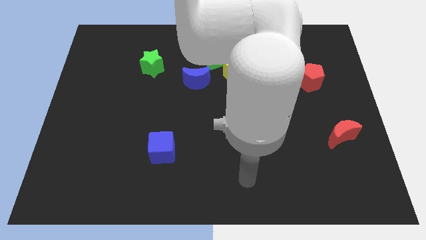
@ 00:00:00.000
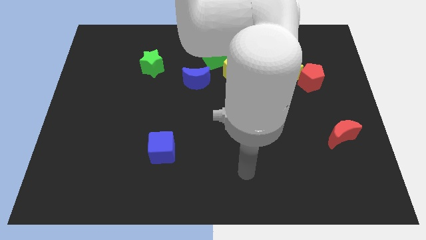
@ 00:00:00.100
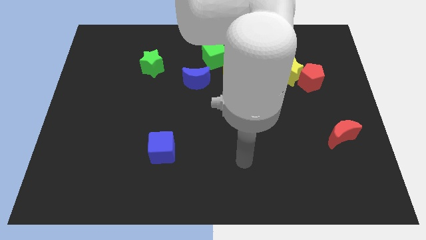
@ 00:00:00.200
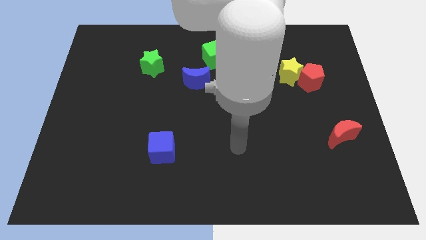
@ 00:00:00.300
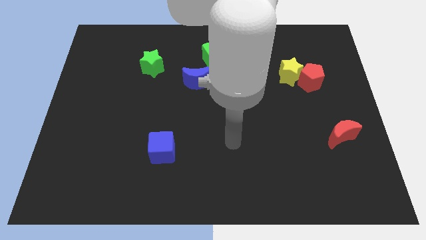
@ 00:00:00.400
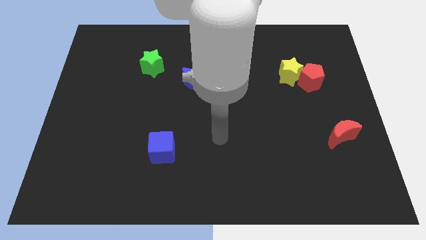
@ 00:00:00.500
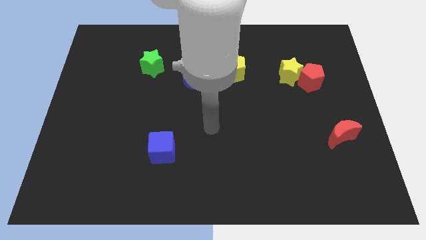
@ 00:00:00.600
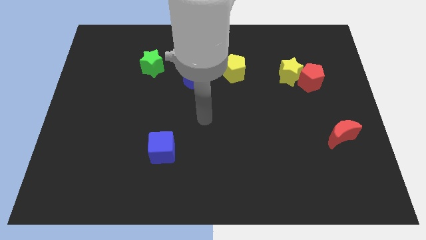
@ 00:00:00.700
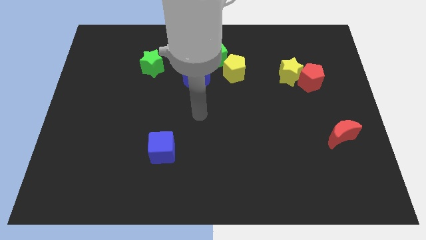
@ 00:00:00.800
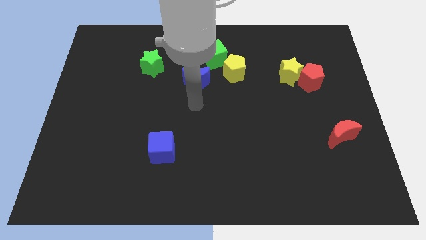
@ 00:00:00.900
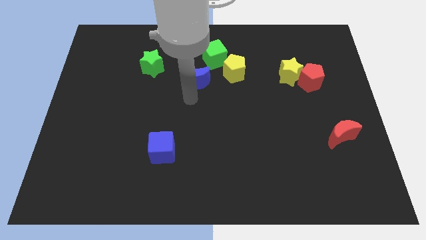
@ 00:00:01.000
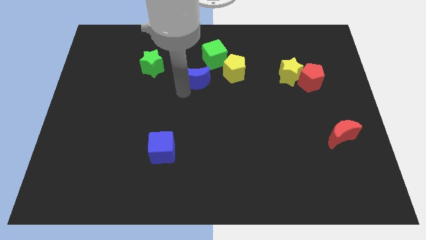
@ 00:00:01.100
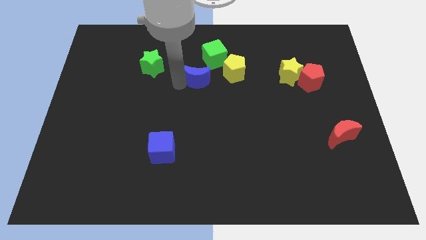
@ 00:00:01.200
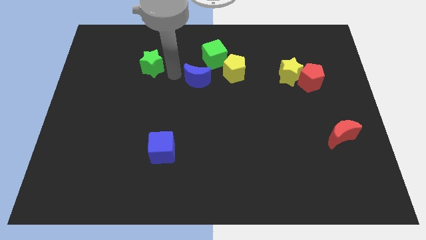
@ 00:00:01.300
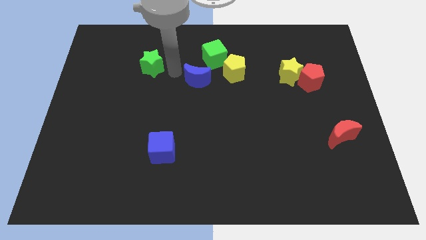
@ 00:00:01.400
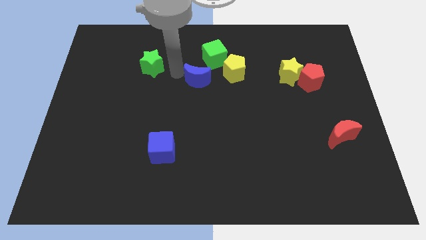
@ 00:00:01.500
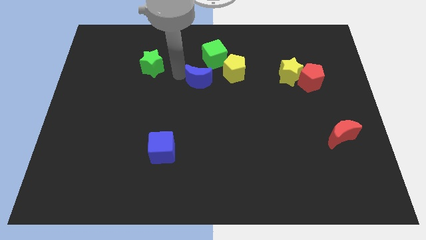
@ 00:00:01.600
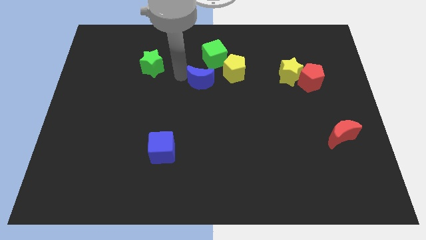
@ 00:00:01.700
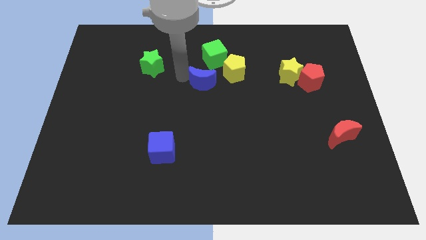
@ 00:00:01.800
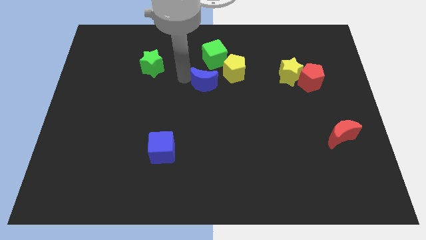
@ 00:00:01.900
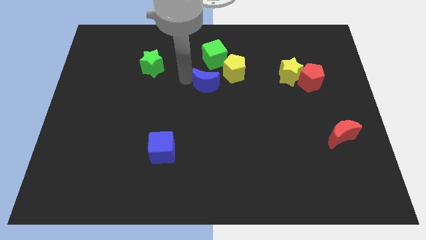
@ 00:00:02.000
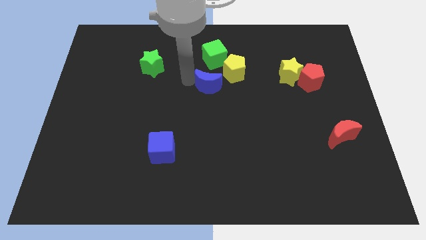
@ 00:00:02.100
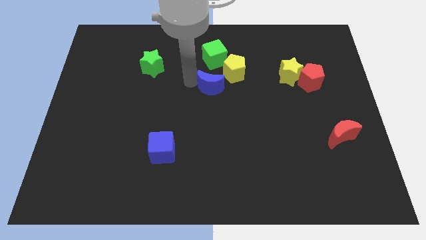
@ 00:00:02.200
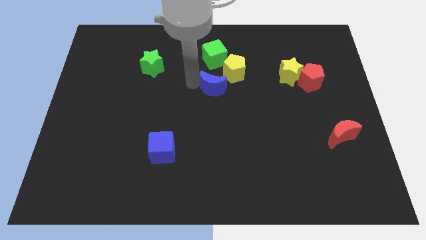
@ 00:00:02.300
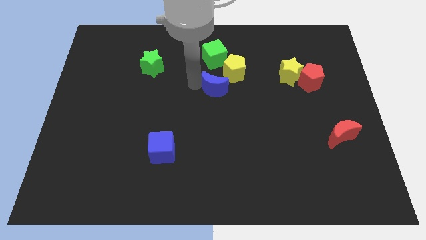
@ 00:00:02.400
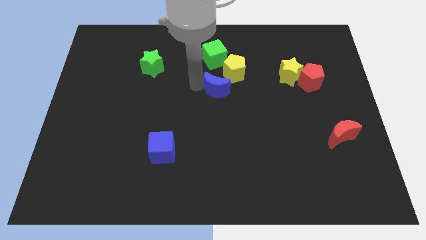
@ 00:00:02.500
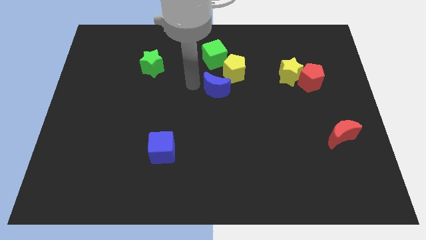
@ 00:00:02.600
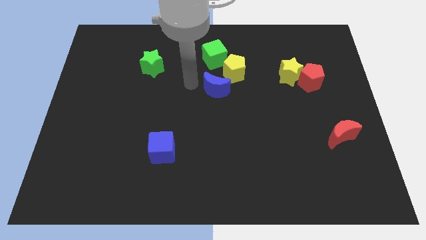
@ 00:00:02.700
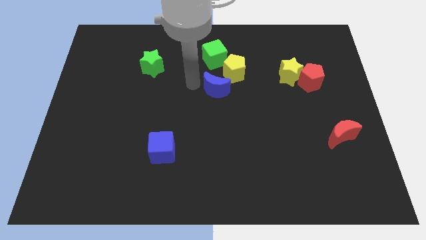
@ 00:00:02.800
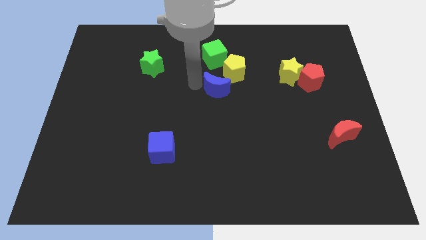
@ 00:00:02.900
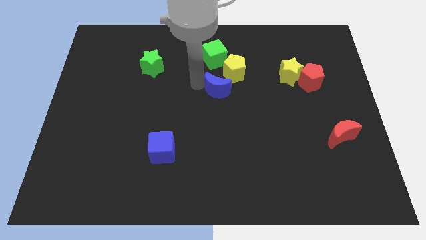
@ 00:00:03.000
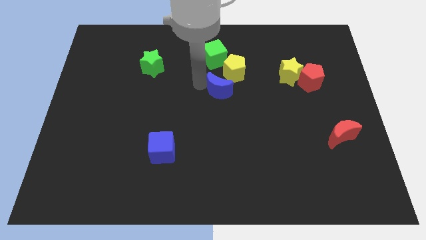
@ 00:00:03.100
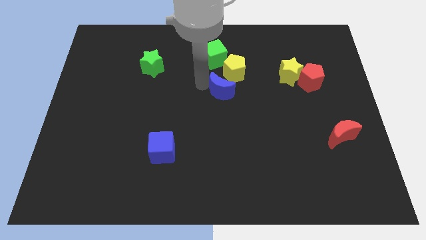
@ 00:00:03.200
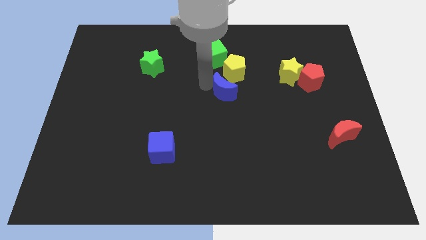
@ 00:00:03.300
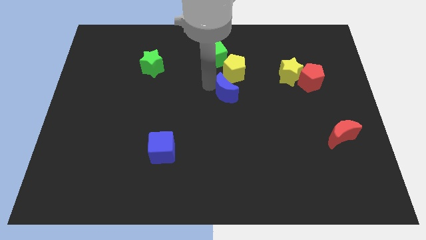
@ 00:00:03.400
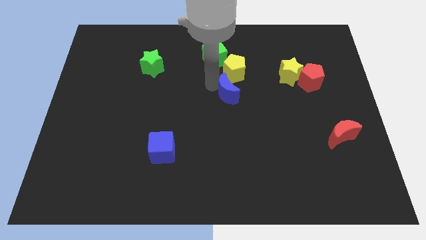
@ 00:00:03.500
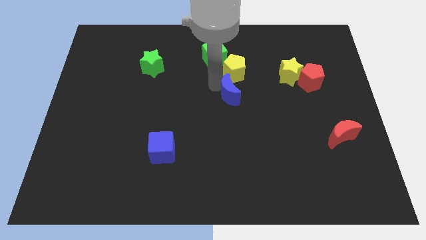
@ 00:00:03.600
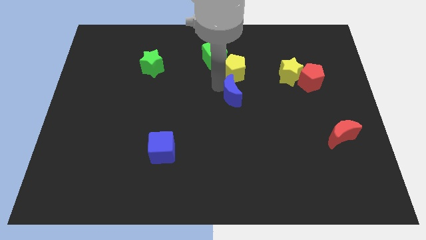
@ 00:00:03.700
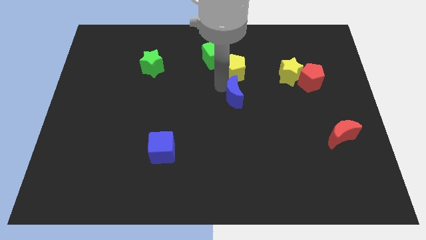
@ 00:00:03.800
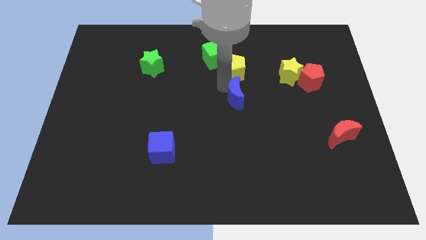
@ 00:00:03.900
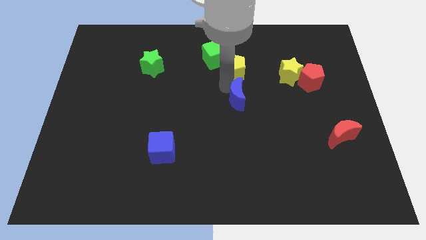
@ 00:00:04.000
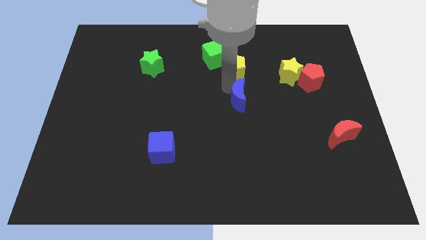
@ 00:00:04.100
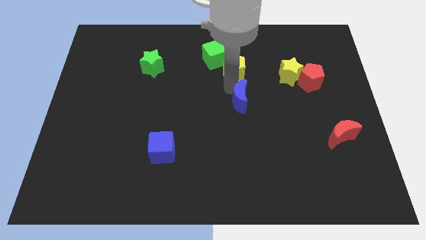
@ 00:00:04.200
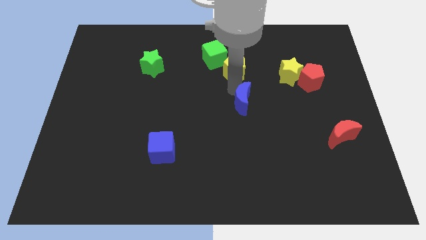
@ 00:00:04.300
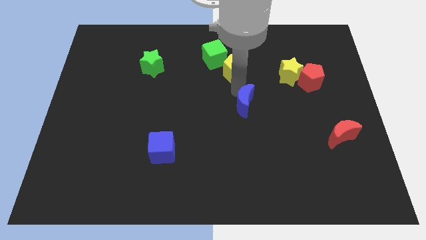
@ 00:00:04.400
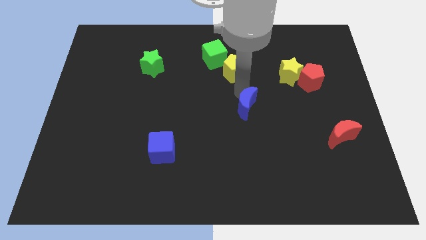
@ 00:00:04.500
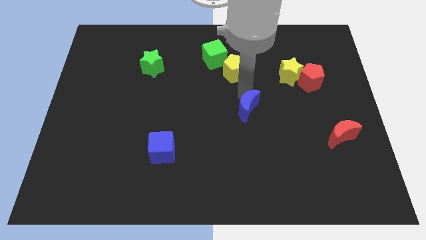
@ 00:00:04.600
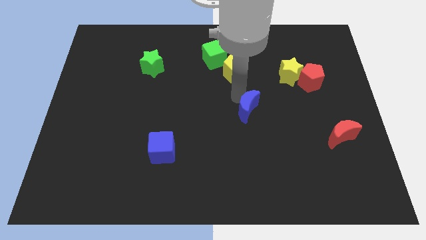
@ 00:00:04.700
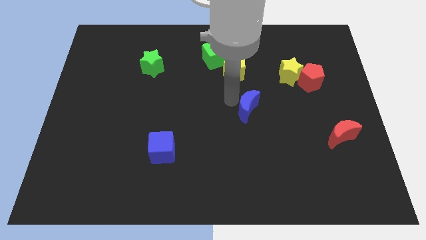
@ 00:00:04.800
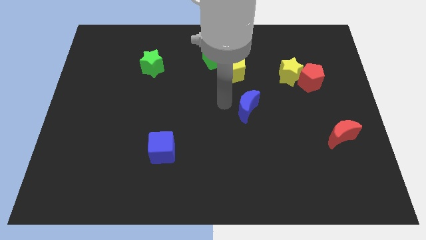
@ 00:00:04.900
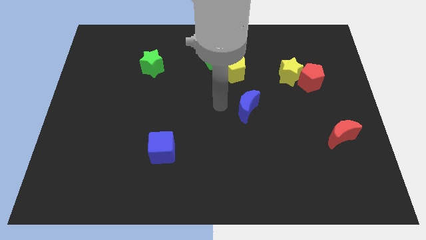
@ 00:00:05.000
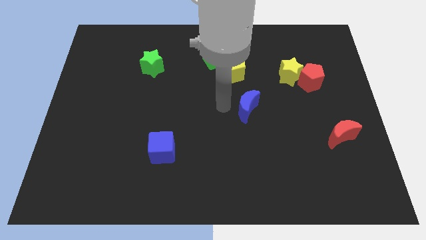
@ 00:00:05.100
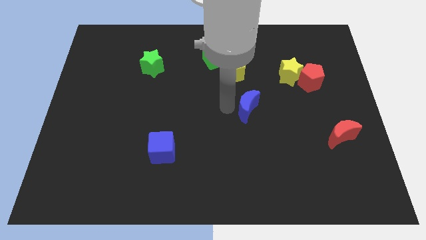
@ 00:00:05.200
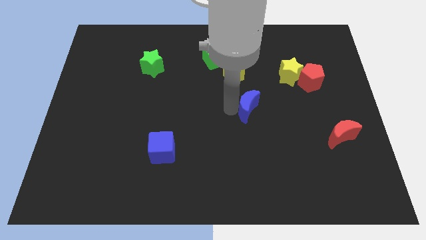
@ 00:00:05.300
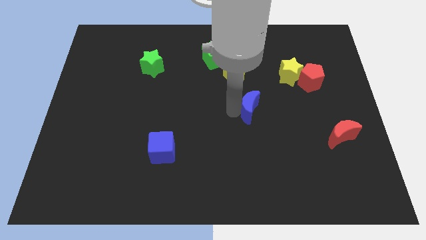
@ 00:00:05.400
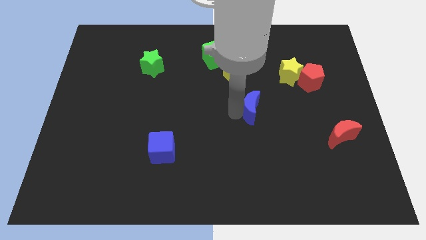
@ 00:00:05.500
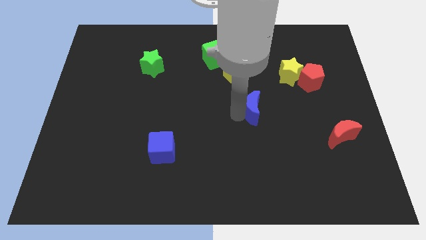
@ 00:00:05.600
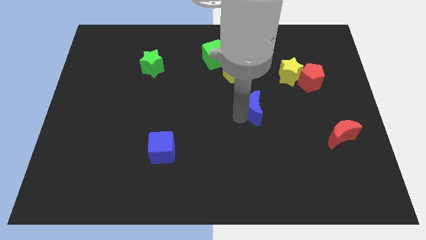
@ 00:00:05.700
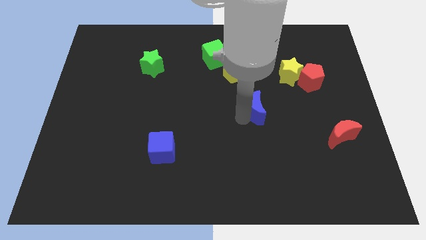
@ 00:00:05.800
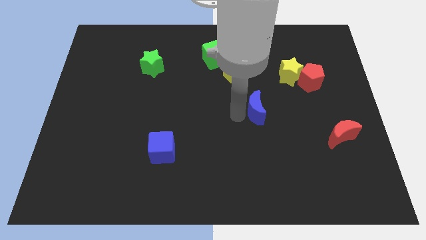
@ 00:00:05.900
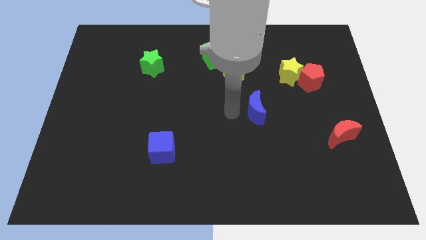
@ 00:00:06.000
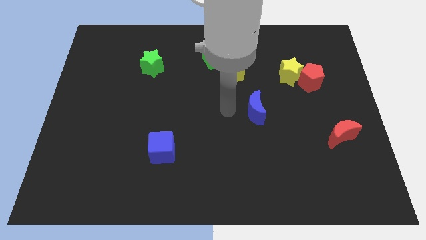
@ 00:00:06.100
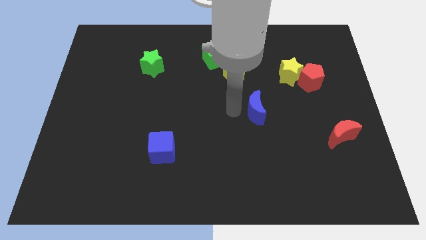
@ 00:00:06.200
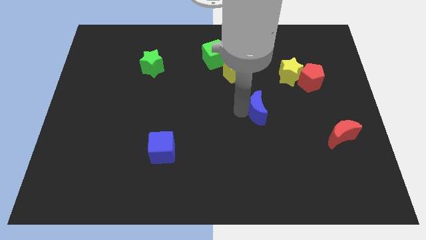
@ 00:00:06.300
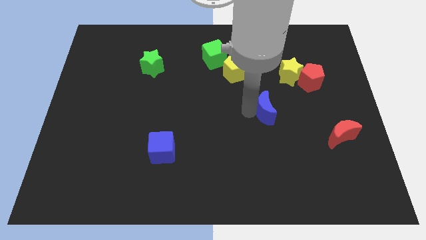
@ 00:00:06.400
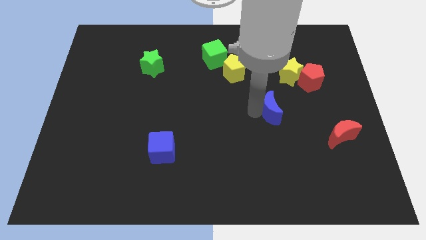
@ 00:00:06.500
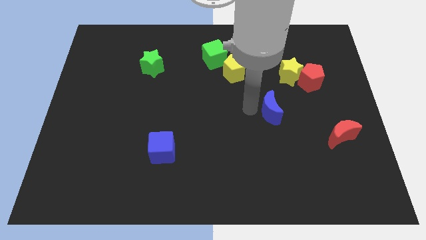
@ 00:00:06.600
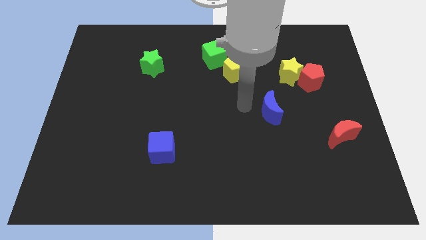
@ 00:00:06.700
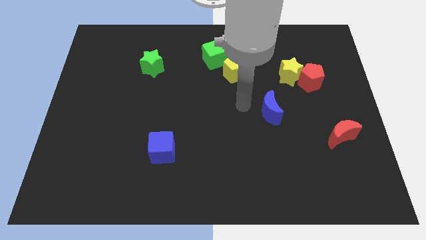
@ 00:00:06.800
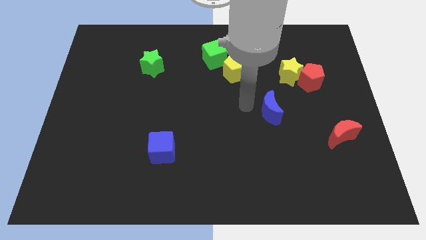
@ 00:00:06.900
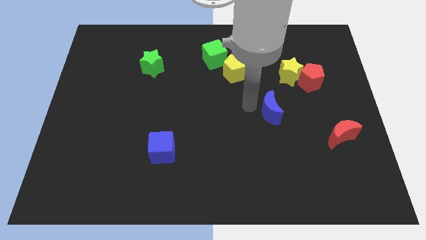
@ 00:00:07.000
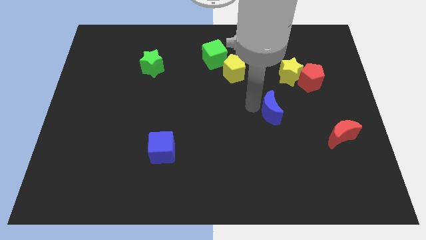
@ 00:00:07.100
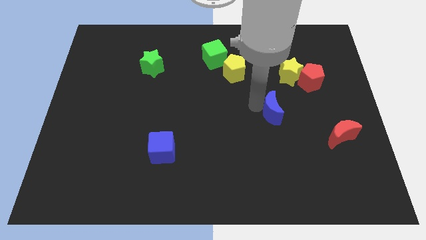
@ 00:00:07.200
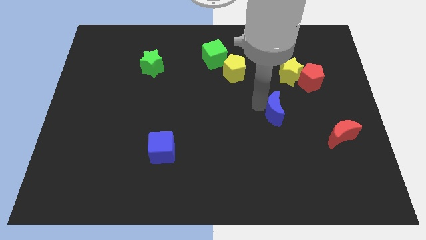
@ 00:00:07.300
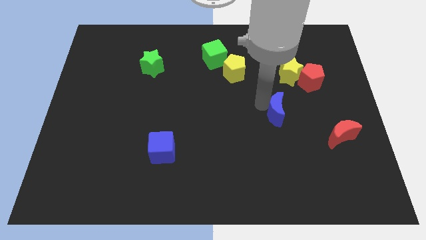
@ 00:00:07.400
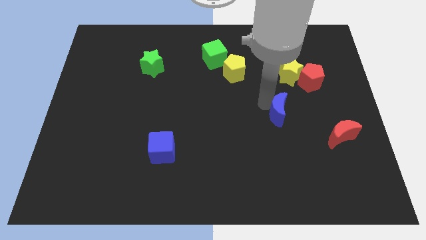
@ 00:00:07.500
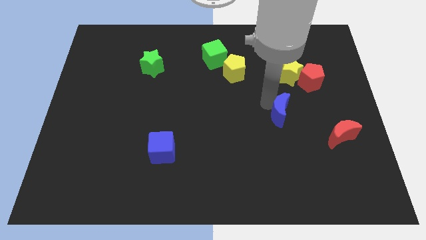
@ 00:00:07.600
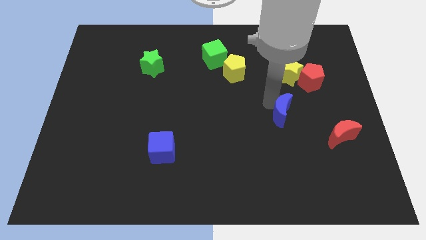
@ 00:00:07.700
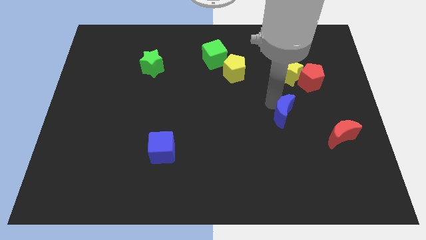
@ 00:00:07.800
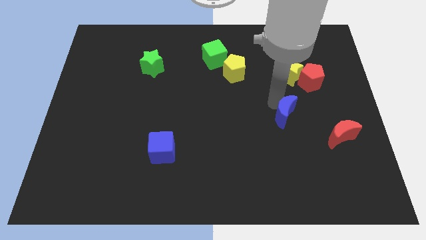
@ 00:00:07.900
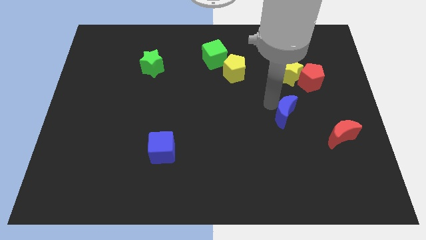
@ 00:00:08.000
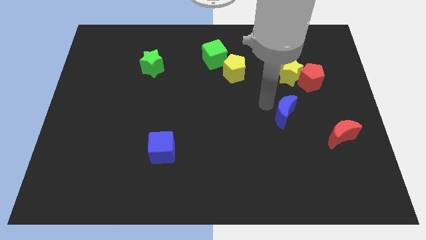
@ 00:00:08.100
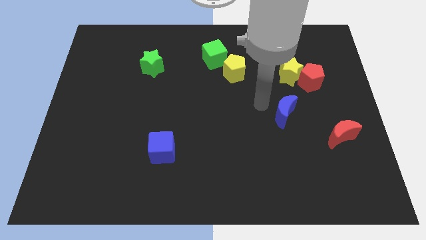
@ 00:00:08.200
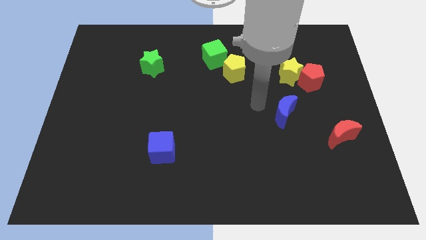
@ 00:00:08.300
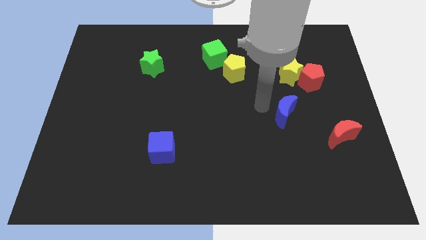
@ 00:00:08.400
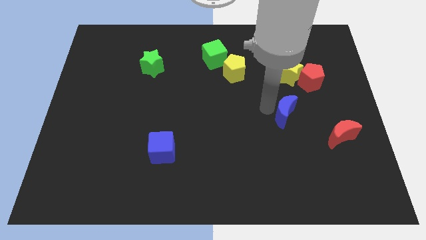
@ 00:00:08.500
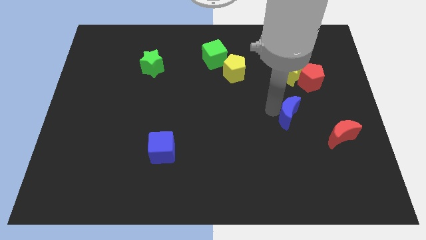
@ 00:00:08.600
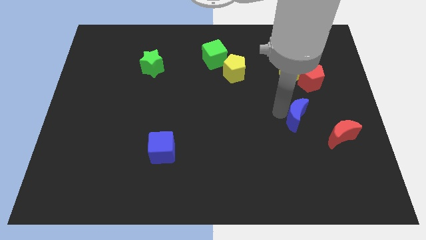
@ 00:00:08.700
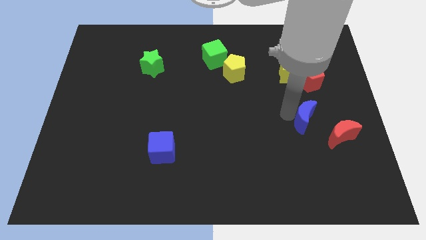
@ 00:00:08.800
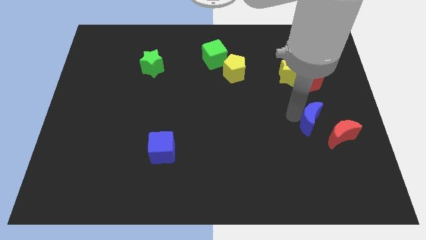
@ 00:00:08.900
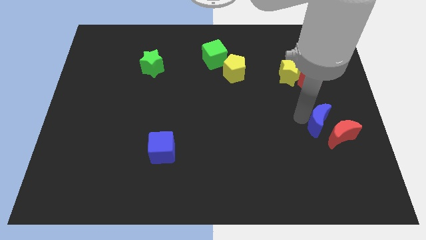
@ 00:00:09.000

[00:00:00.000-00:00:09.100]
slide the blue moon towards the red moon
